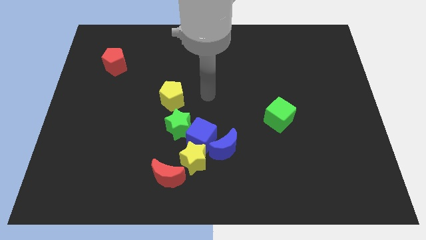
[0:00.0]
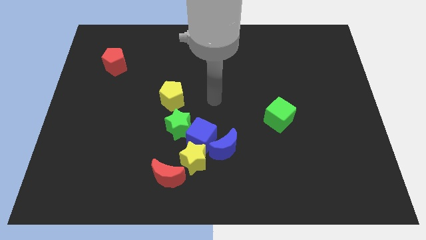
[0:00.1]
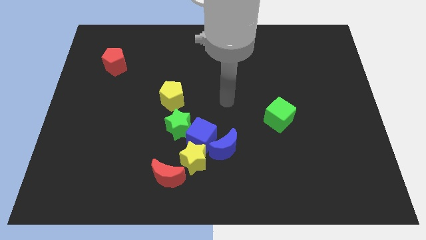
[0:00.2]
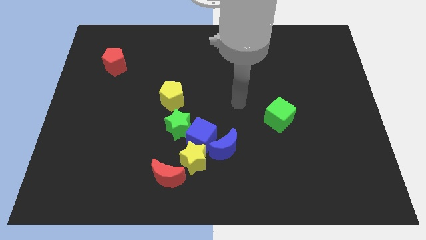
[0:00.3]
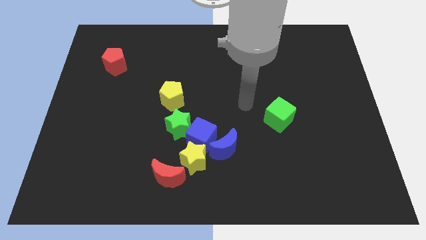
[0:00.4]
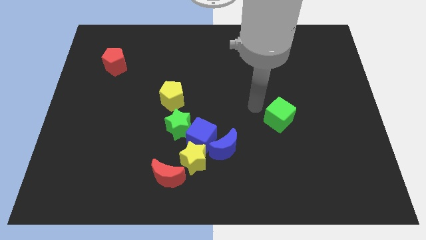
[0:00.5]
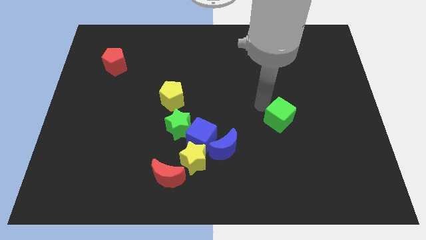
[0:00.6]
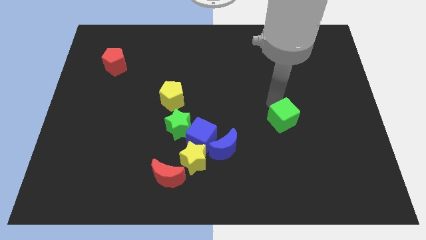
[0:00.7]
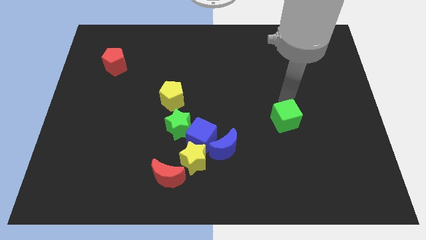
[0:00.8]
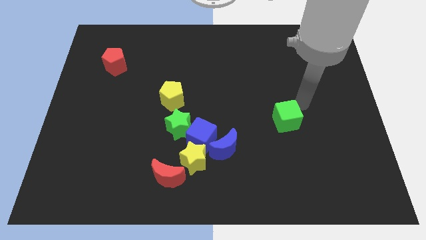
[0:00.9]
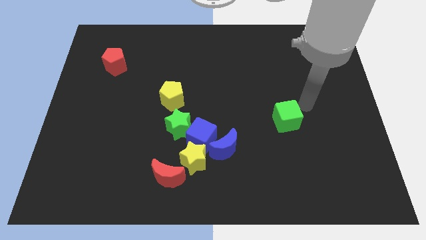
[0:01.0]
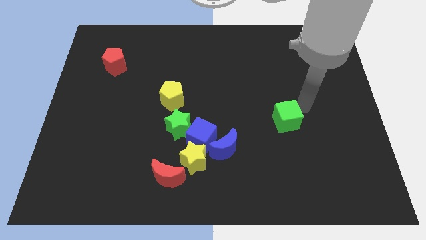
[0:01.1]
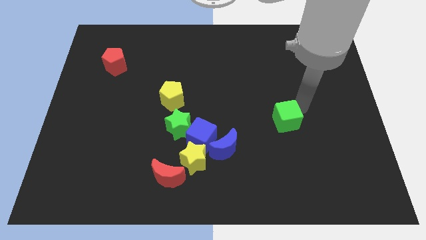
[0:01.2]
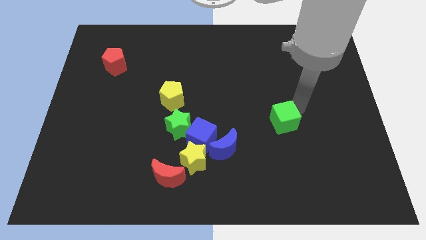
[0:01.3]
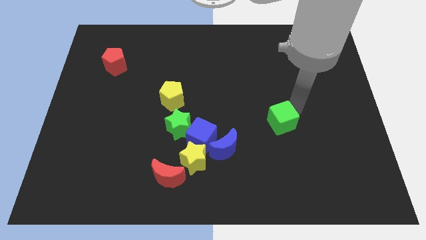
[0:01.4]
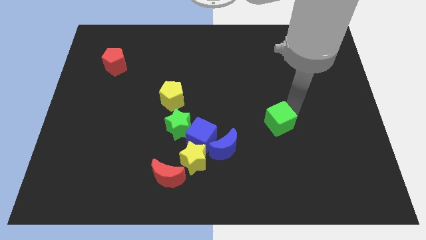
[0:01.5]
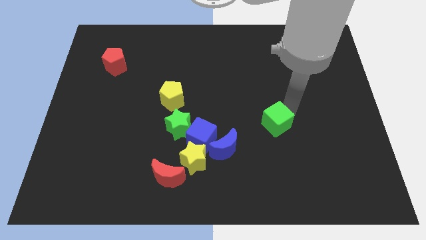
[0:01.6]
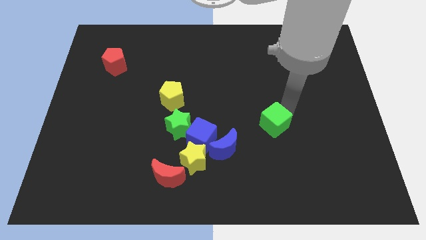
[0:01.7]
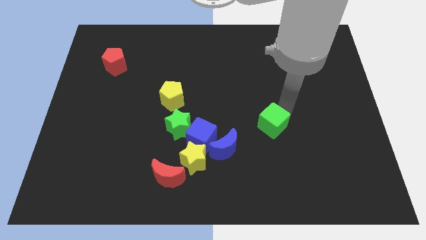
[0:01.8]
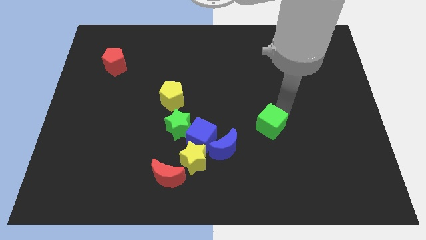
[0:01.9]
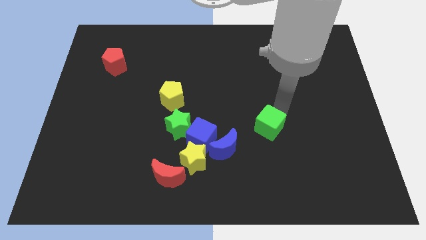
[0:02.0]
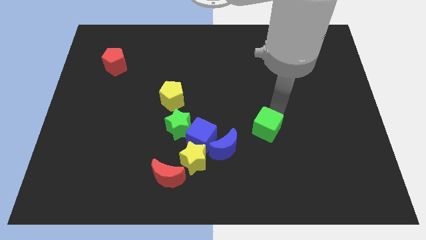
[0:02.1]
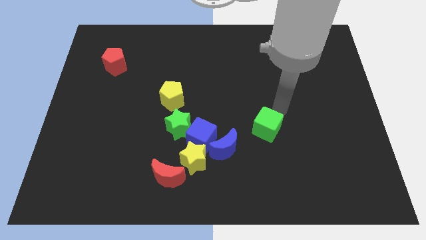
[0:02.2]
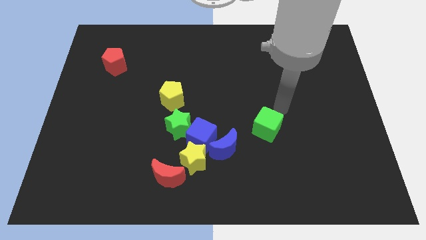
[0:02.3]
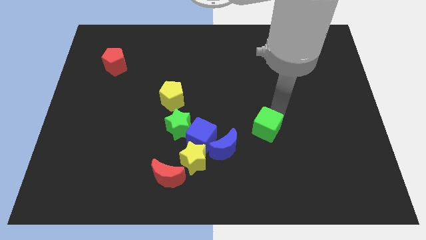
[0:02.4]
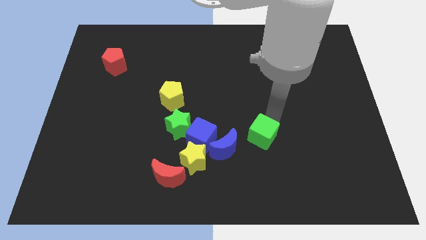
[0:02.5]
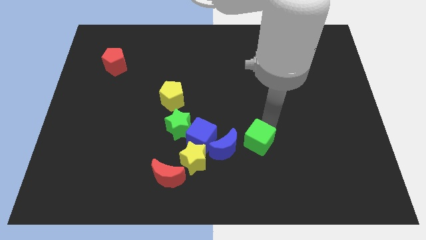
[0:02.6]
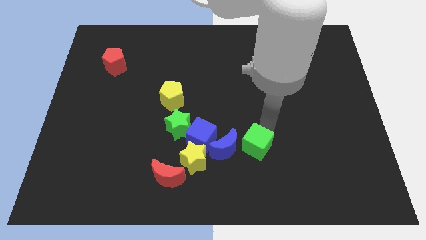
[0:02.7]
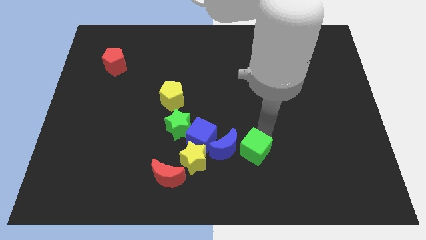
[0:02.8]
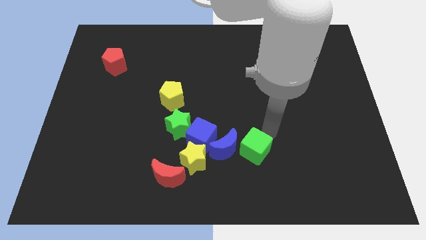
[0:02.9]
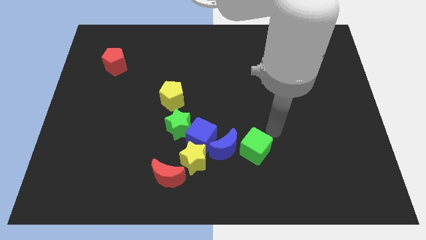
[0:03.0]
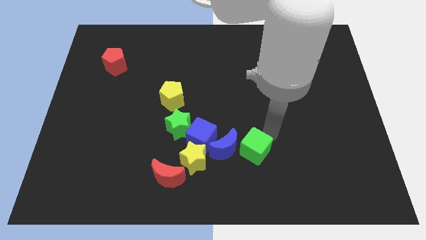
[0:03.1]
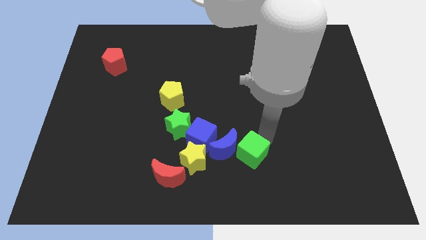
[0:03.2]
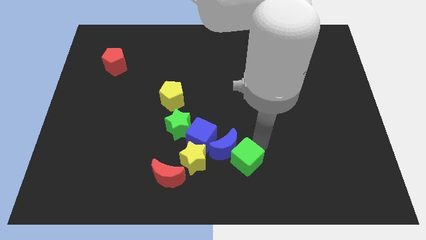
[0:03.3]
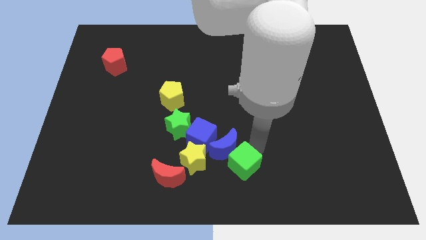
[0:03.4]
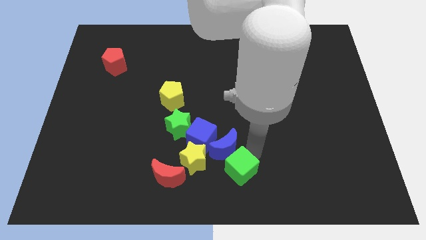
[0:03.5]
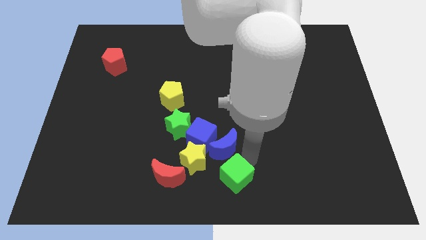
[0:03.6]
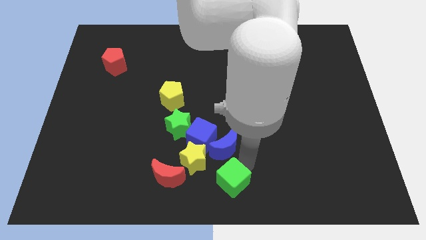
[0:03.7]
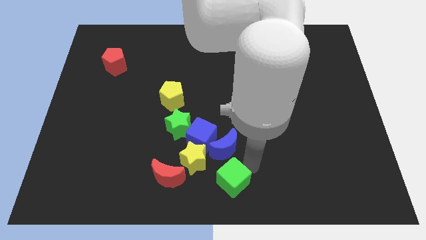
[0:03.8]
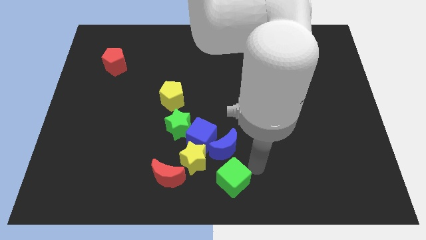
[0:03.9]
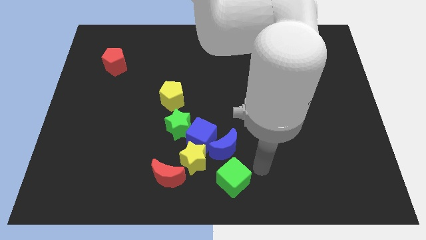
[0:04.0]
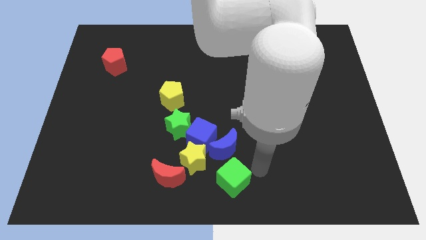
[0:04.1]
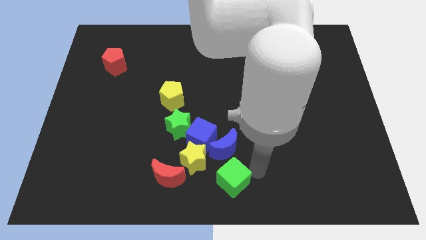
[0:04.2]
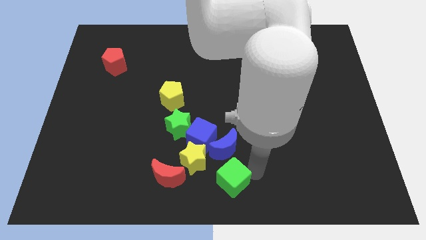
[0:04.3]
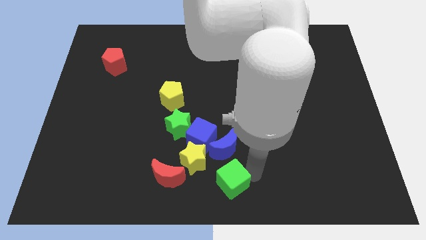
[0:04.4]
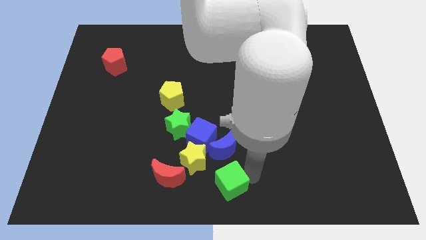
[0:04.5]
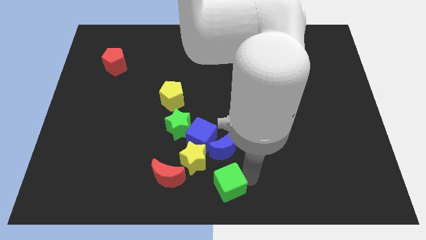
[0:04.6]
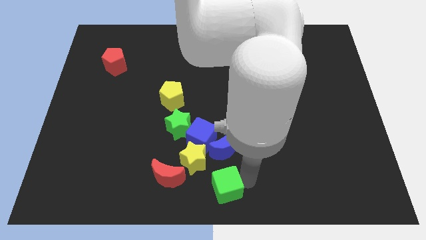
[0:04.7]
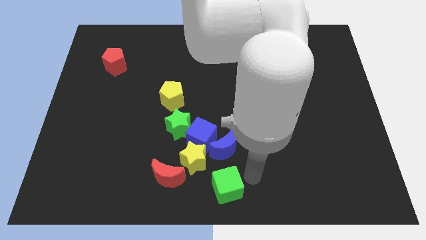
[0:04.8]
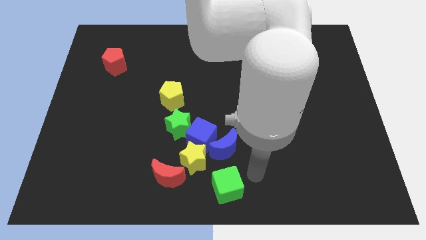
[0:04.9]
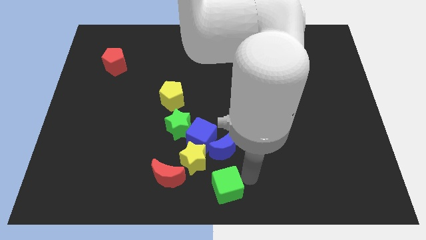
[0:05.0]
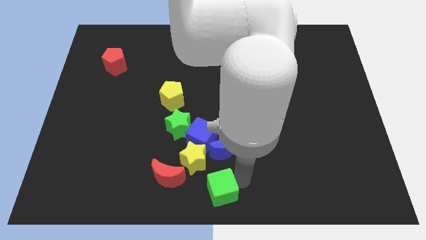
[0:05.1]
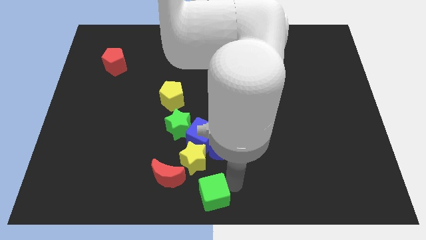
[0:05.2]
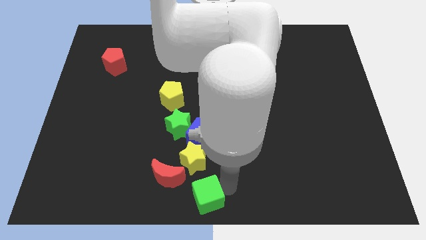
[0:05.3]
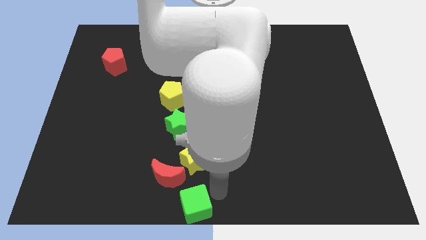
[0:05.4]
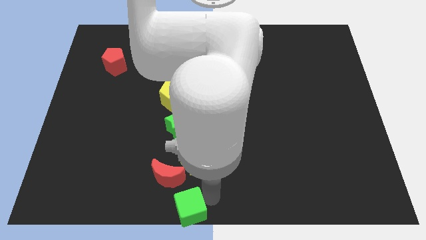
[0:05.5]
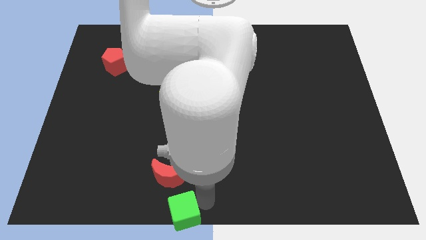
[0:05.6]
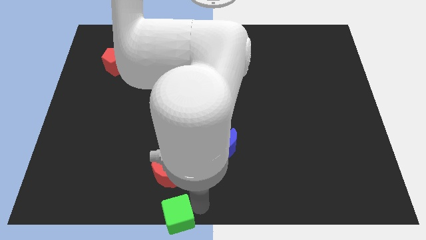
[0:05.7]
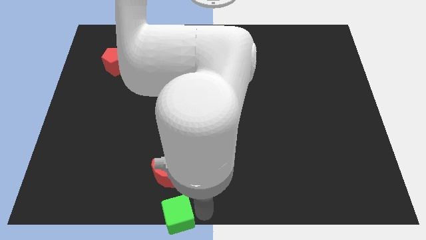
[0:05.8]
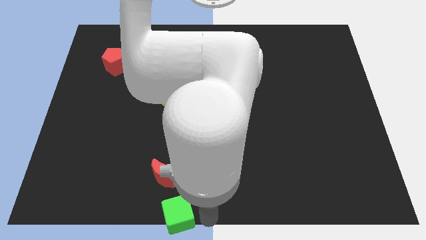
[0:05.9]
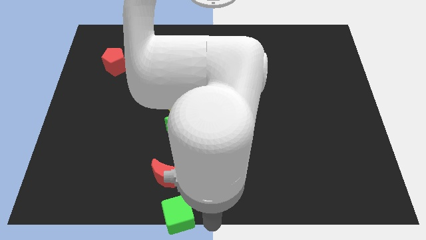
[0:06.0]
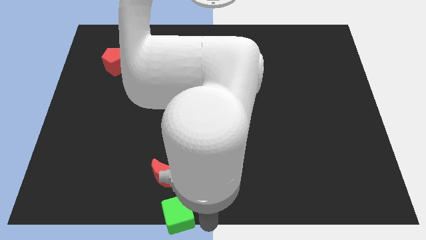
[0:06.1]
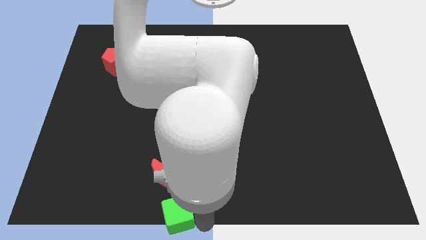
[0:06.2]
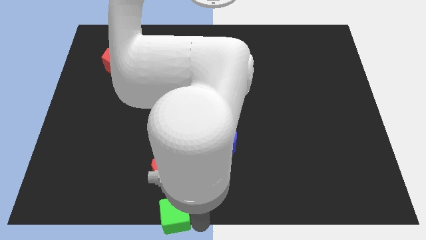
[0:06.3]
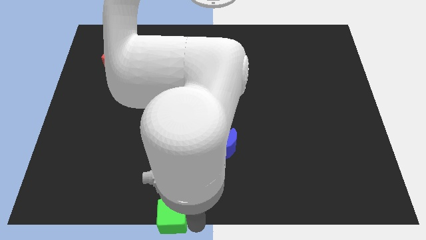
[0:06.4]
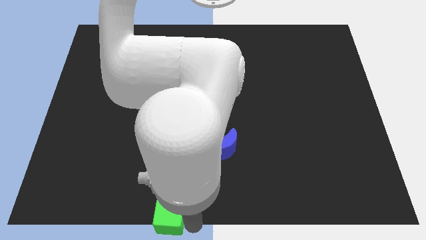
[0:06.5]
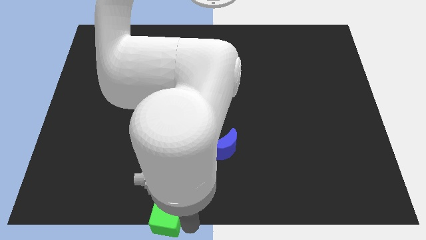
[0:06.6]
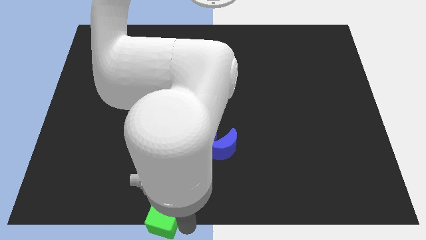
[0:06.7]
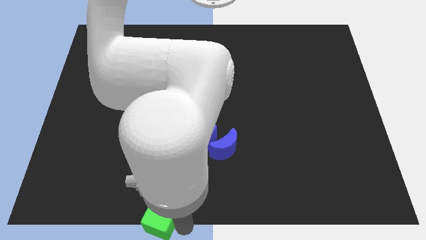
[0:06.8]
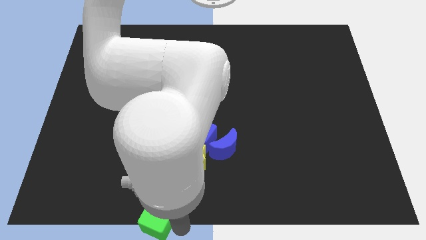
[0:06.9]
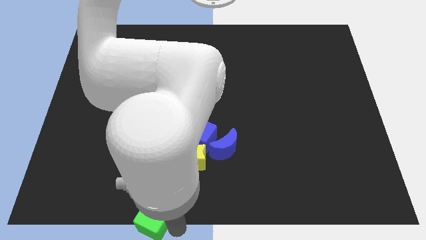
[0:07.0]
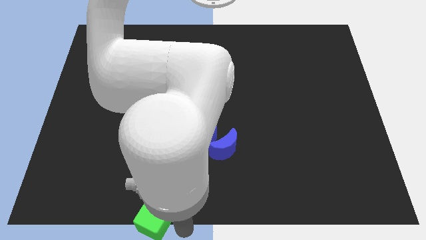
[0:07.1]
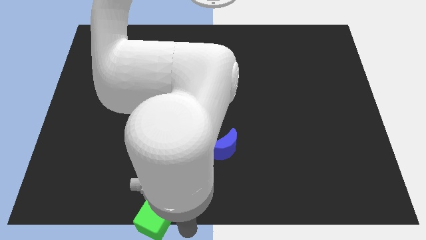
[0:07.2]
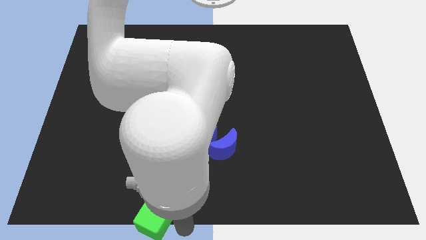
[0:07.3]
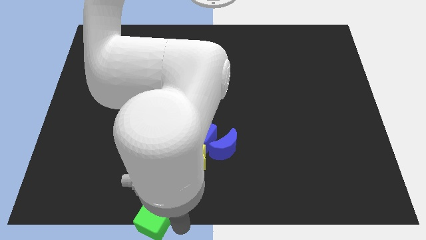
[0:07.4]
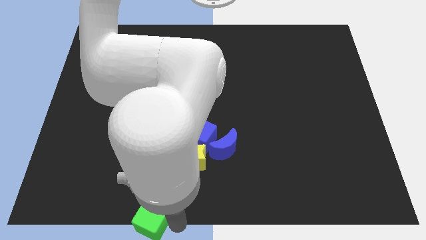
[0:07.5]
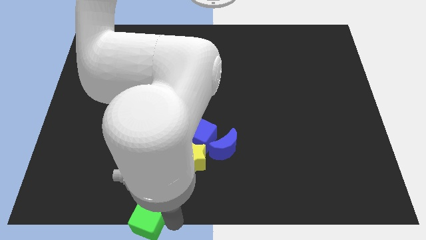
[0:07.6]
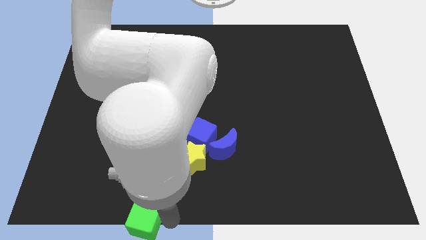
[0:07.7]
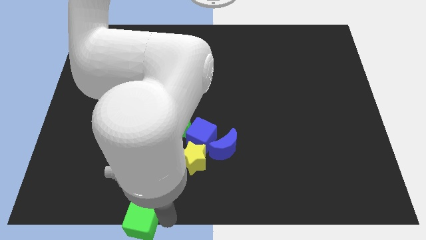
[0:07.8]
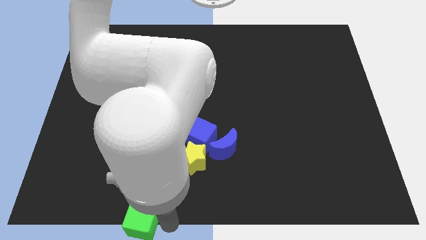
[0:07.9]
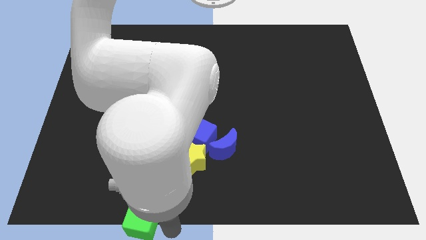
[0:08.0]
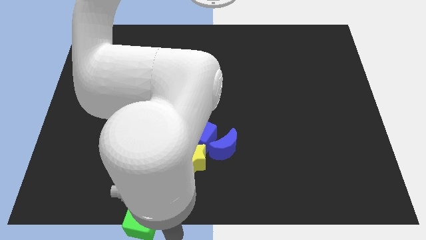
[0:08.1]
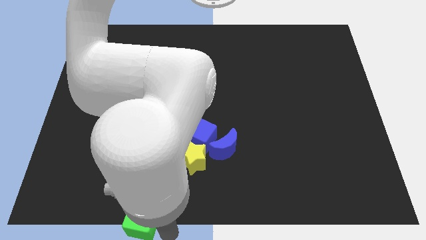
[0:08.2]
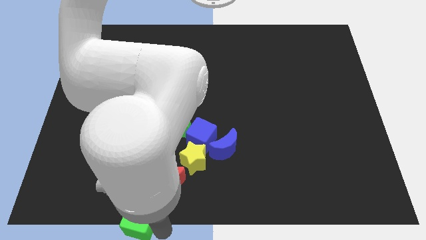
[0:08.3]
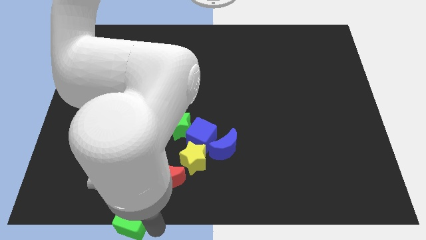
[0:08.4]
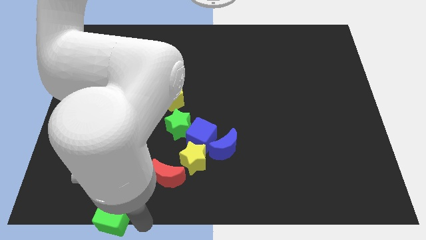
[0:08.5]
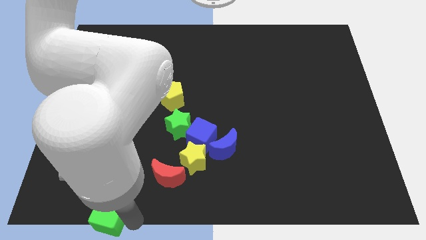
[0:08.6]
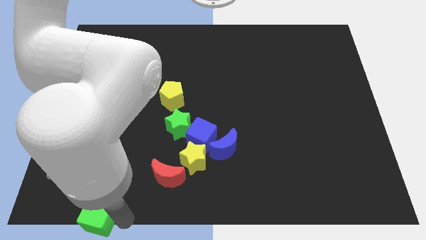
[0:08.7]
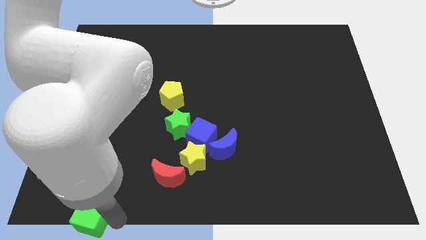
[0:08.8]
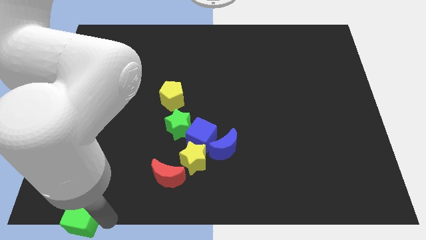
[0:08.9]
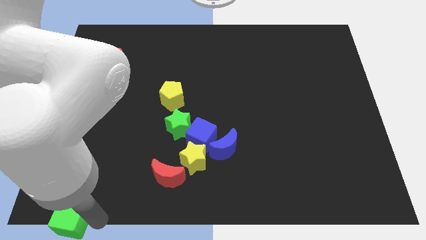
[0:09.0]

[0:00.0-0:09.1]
put the green cube to the bottom left of the board
